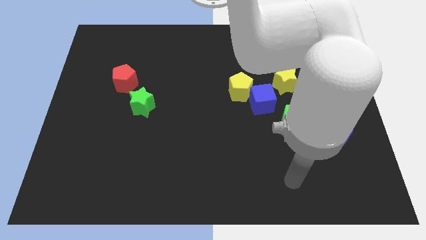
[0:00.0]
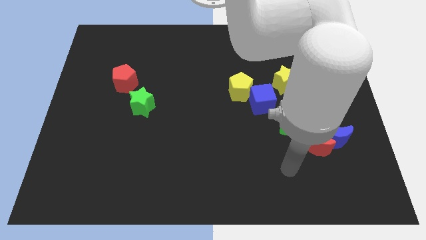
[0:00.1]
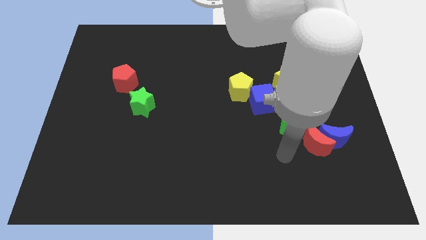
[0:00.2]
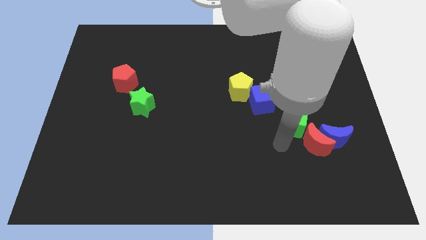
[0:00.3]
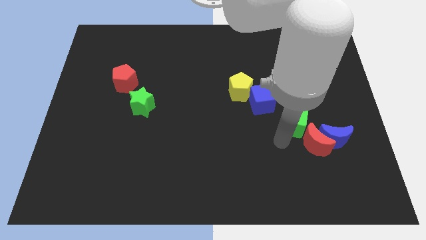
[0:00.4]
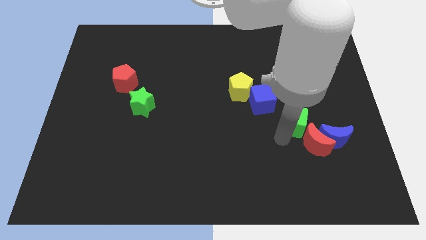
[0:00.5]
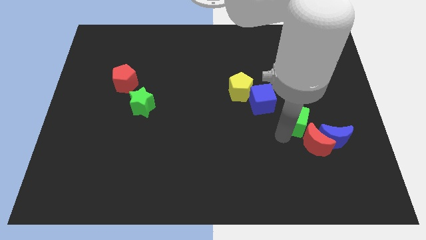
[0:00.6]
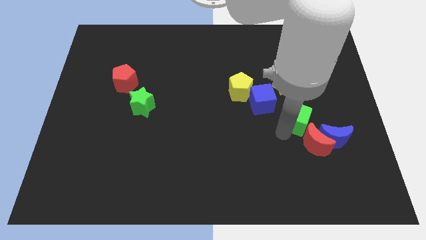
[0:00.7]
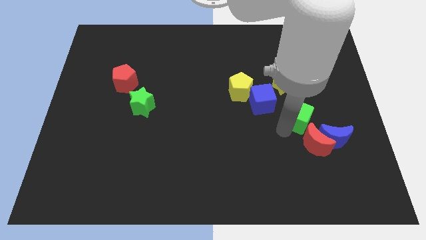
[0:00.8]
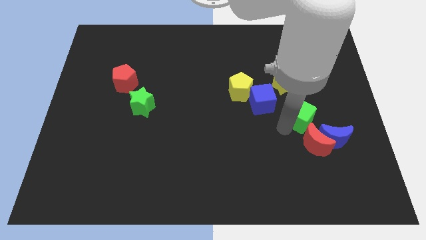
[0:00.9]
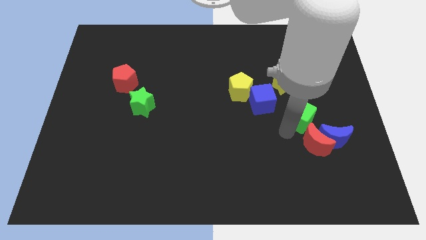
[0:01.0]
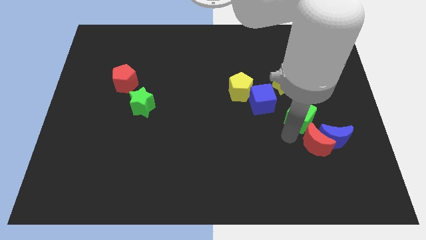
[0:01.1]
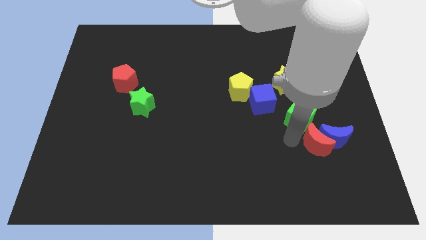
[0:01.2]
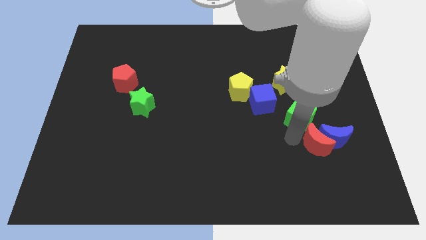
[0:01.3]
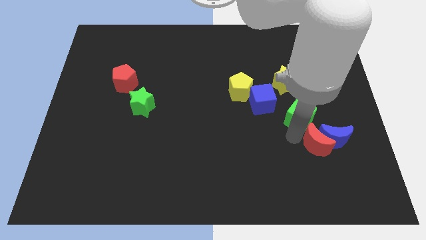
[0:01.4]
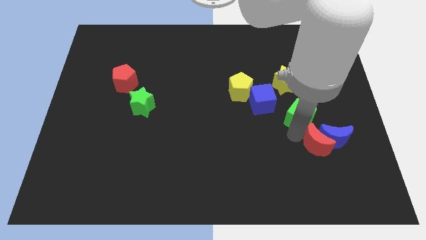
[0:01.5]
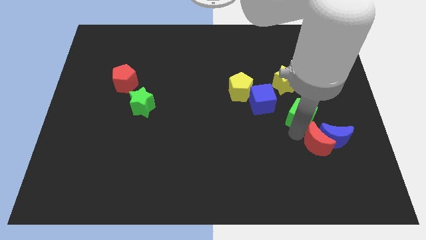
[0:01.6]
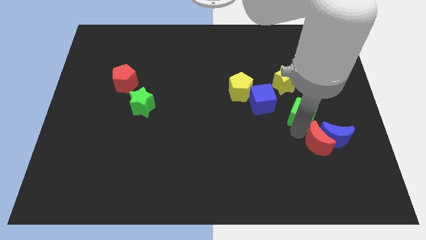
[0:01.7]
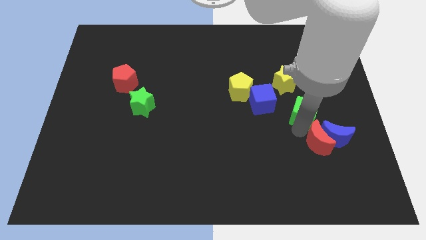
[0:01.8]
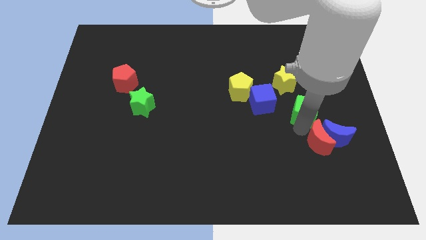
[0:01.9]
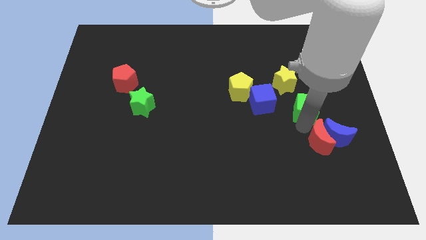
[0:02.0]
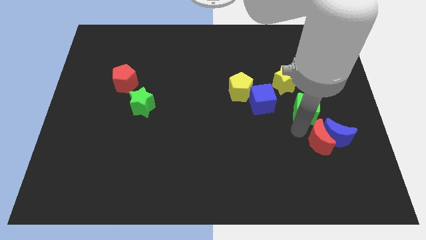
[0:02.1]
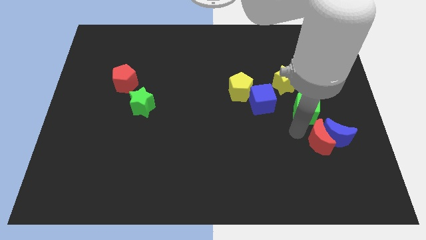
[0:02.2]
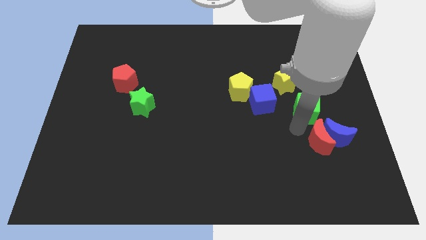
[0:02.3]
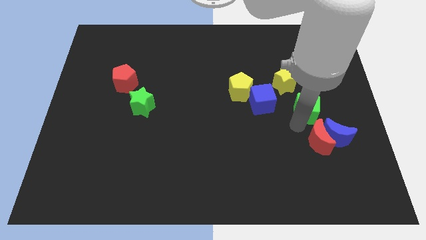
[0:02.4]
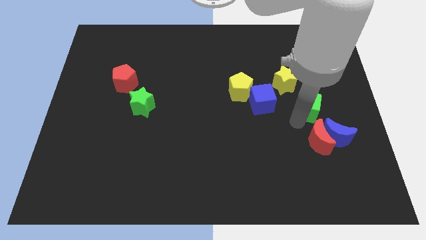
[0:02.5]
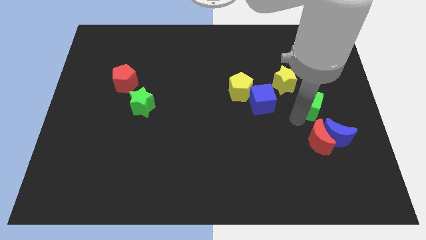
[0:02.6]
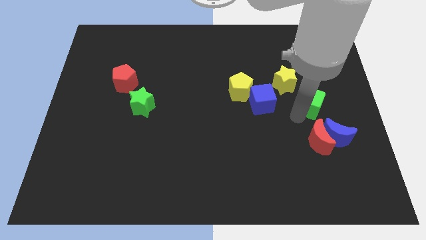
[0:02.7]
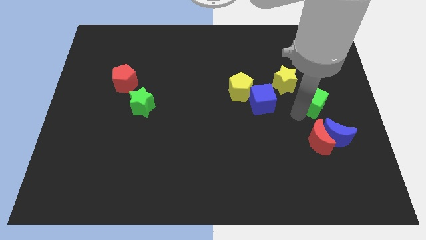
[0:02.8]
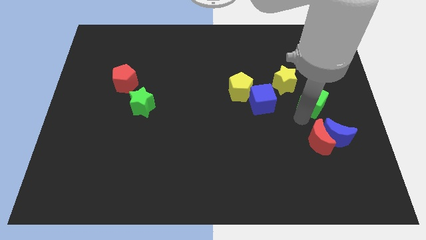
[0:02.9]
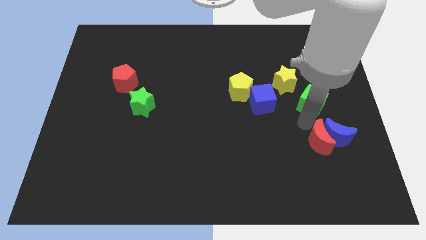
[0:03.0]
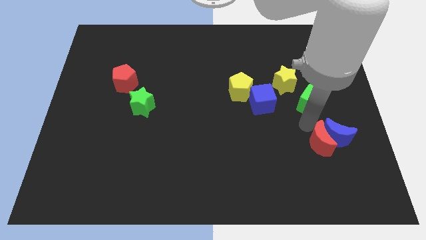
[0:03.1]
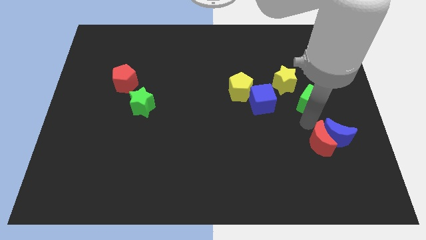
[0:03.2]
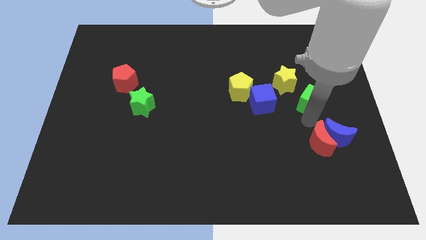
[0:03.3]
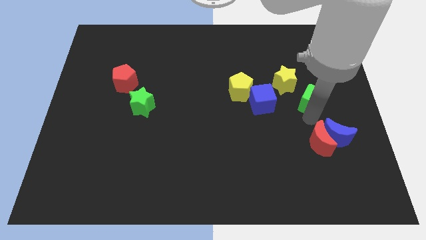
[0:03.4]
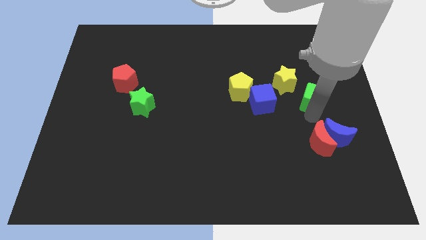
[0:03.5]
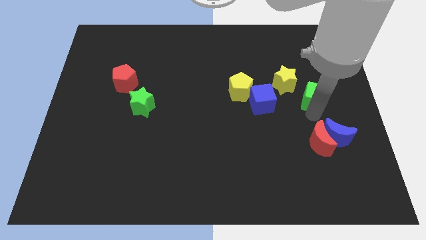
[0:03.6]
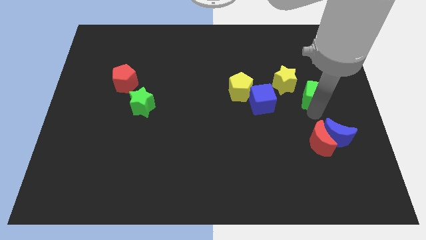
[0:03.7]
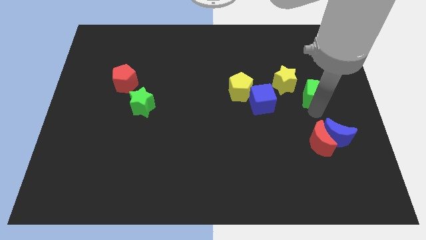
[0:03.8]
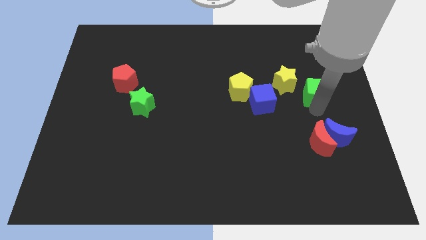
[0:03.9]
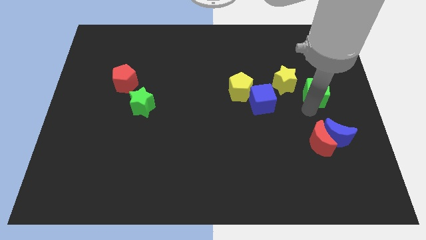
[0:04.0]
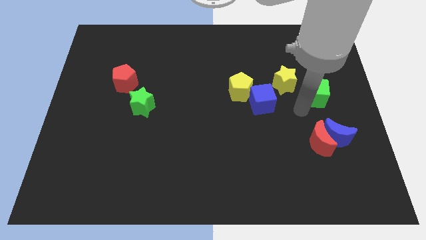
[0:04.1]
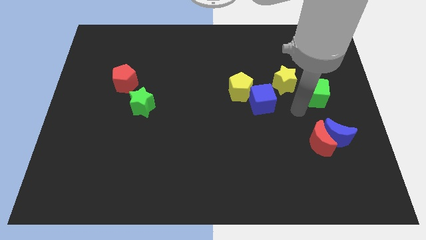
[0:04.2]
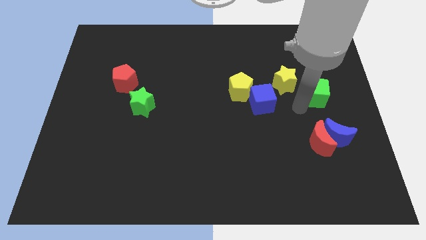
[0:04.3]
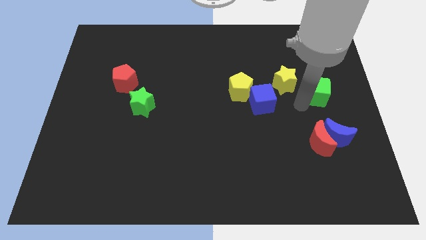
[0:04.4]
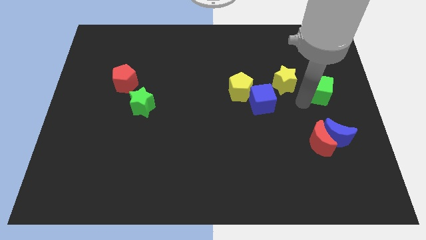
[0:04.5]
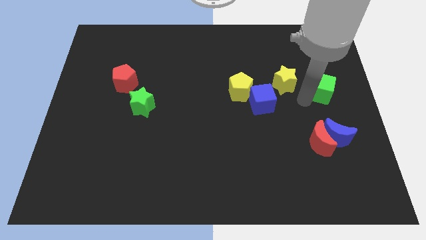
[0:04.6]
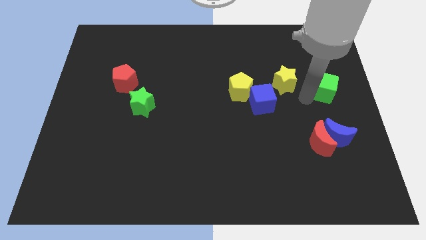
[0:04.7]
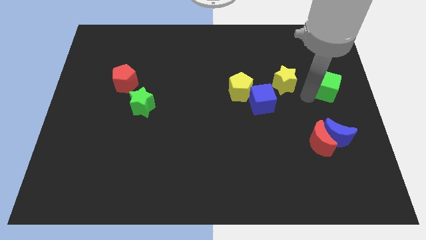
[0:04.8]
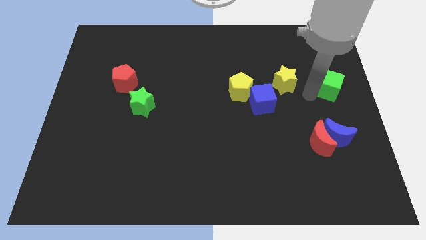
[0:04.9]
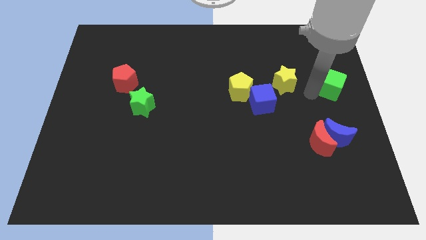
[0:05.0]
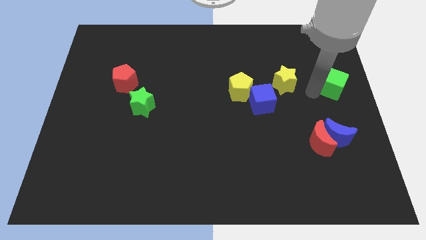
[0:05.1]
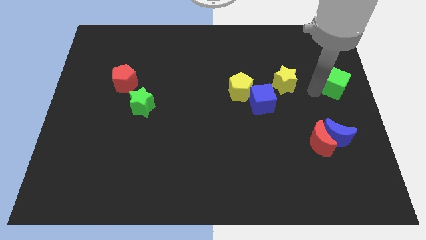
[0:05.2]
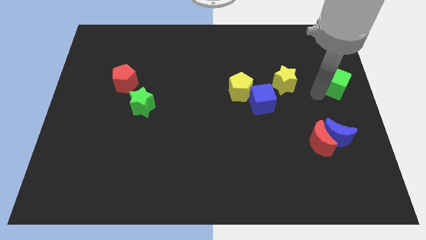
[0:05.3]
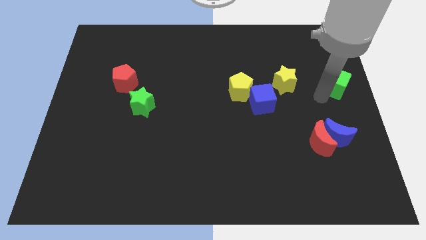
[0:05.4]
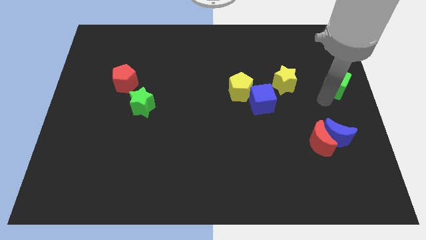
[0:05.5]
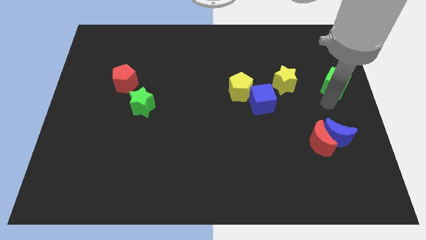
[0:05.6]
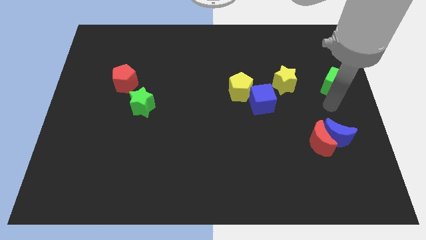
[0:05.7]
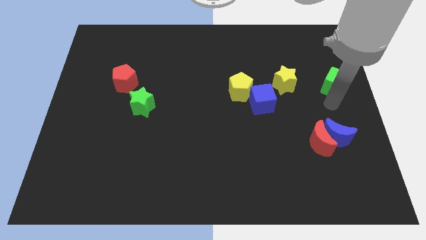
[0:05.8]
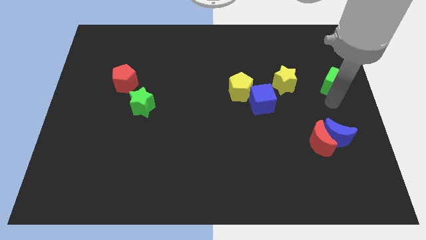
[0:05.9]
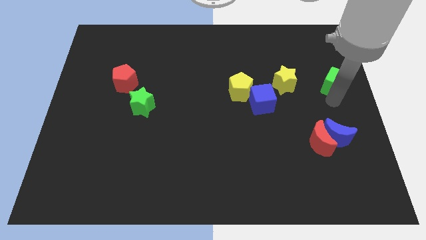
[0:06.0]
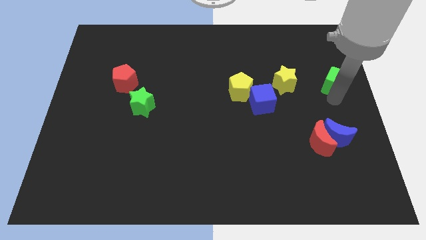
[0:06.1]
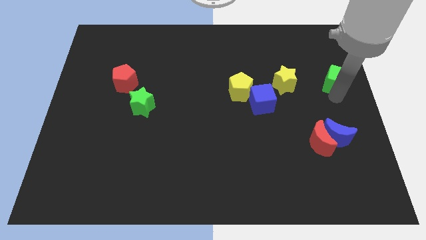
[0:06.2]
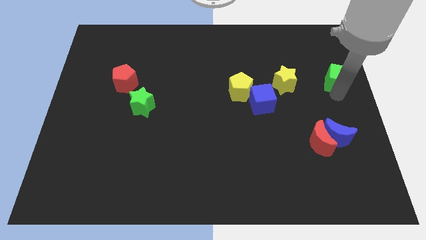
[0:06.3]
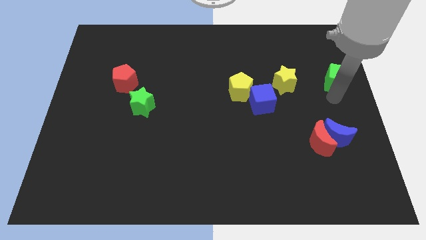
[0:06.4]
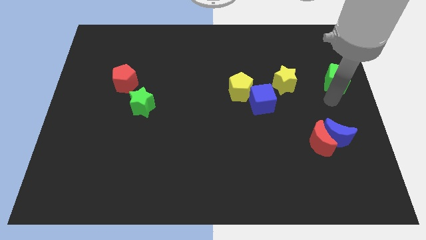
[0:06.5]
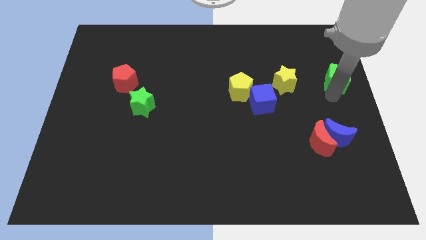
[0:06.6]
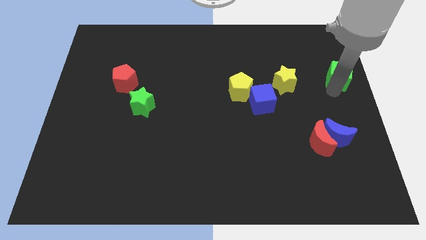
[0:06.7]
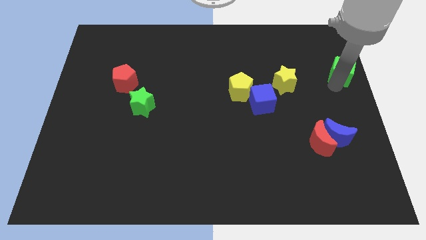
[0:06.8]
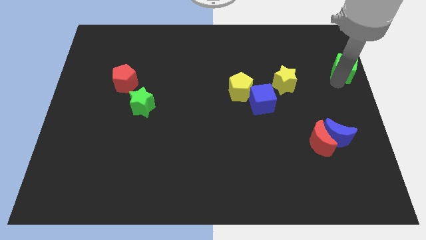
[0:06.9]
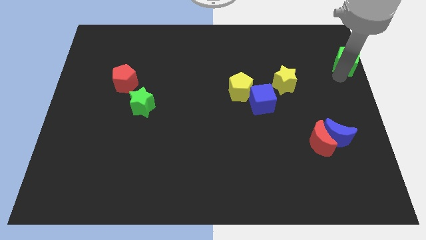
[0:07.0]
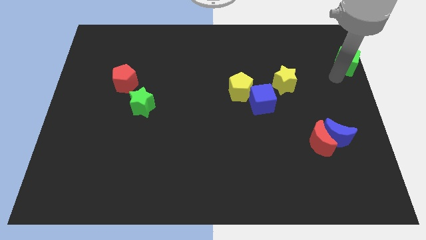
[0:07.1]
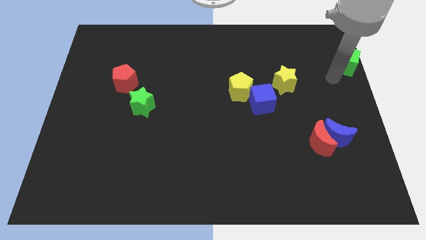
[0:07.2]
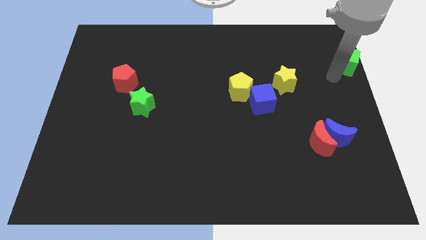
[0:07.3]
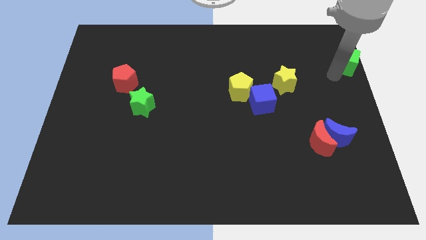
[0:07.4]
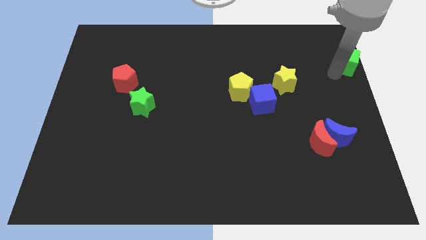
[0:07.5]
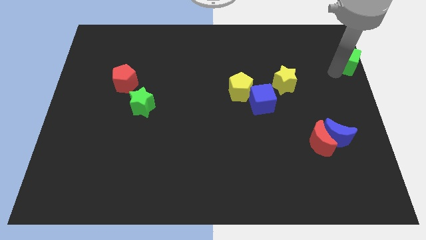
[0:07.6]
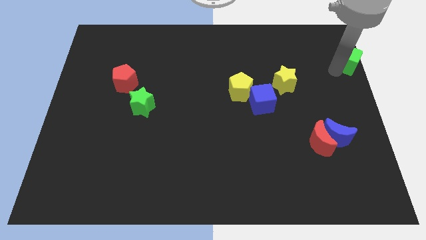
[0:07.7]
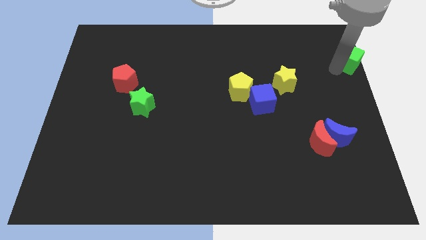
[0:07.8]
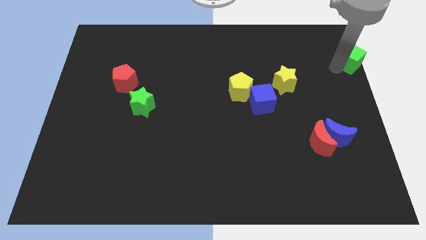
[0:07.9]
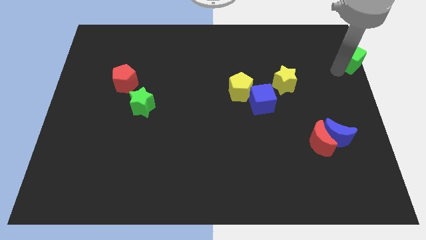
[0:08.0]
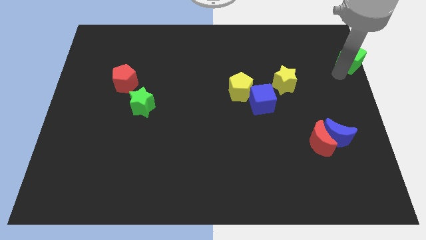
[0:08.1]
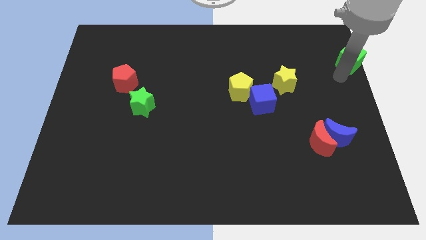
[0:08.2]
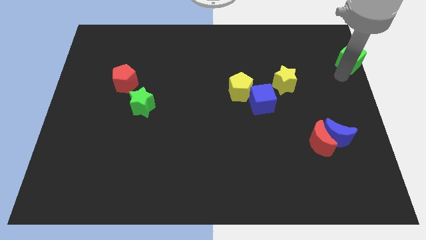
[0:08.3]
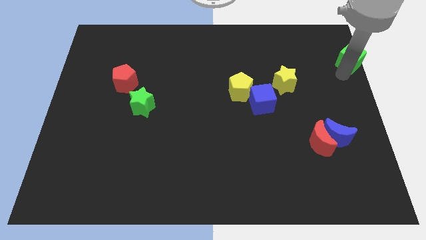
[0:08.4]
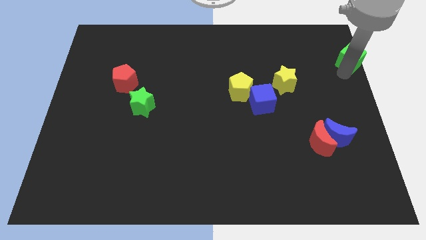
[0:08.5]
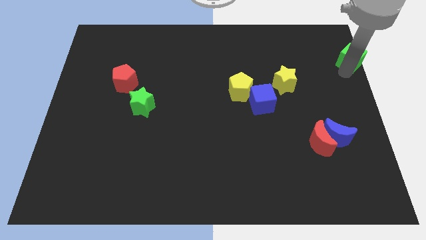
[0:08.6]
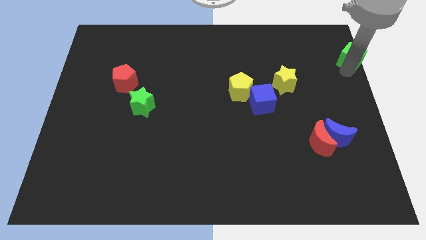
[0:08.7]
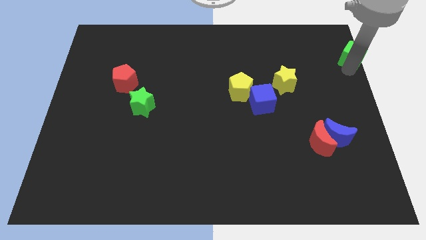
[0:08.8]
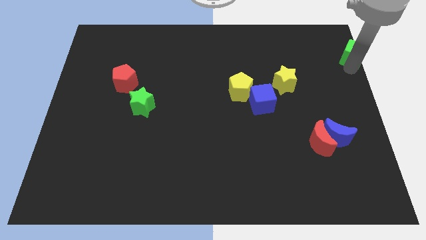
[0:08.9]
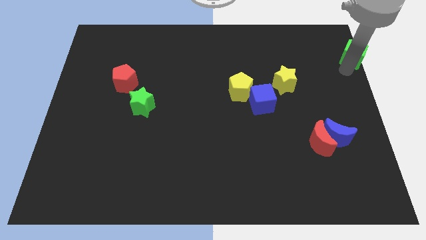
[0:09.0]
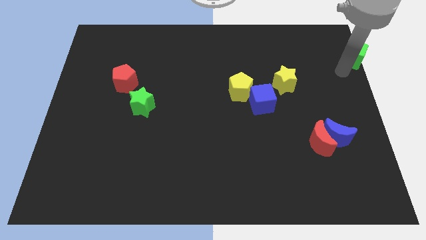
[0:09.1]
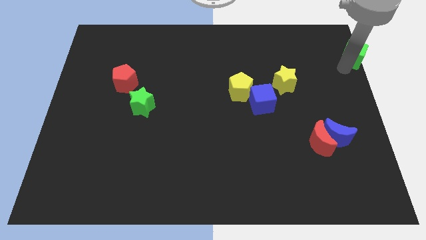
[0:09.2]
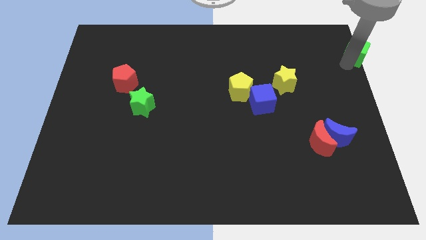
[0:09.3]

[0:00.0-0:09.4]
put the green cube to the top right
